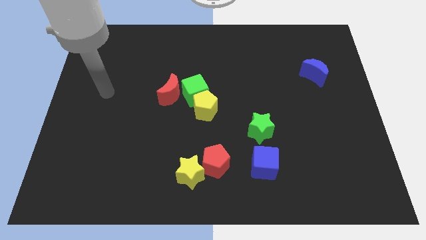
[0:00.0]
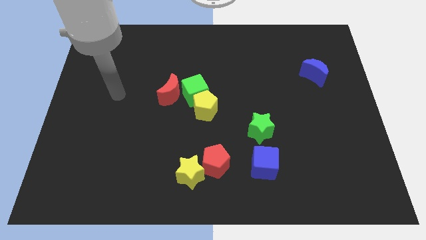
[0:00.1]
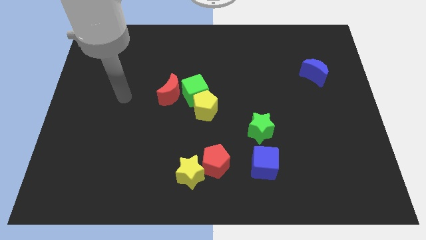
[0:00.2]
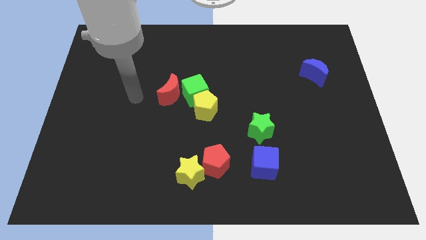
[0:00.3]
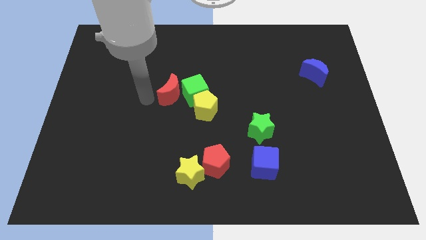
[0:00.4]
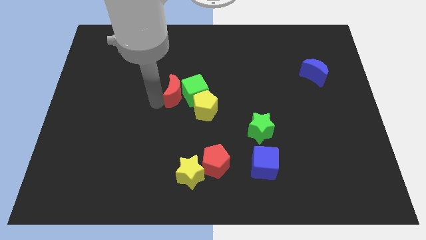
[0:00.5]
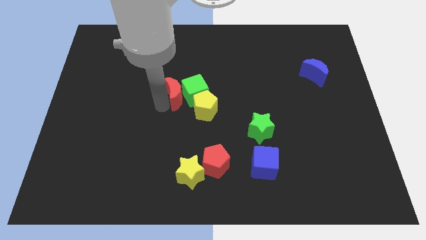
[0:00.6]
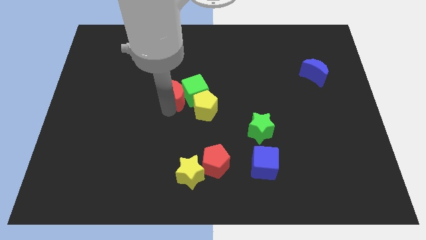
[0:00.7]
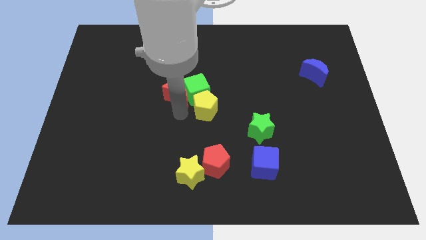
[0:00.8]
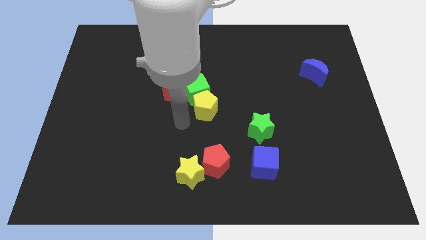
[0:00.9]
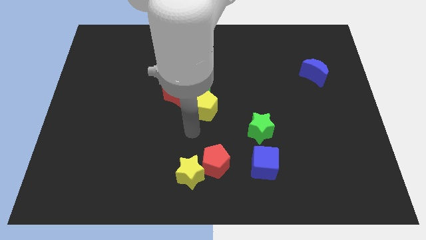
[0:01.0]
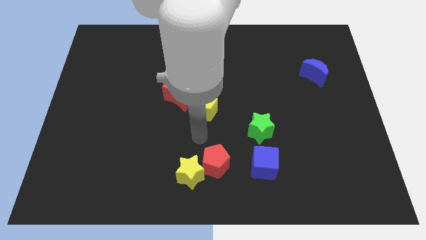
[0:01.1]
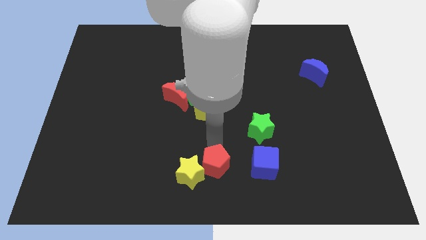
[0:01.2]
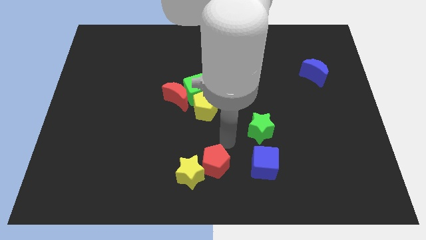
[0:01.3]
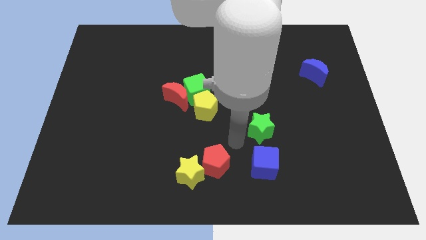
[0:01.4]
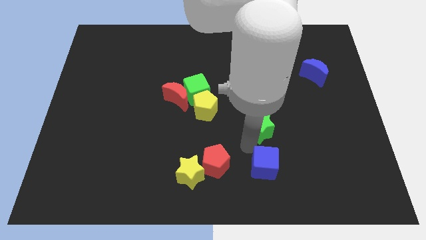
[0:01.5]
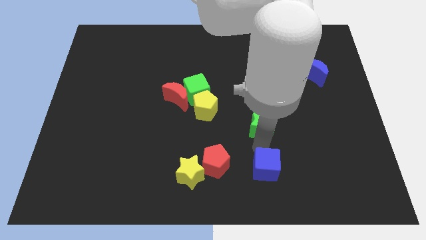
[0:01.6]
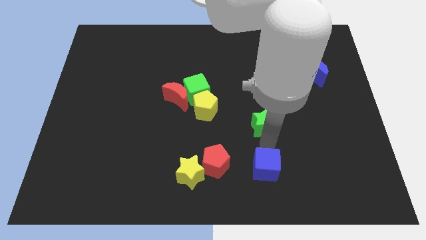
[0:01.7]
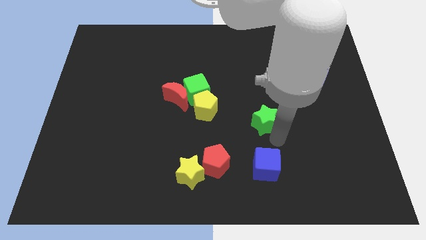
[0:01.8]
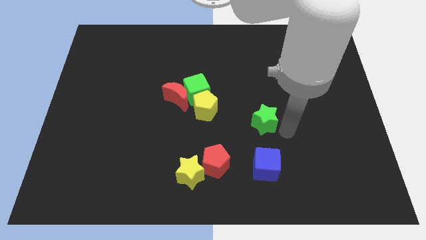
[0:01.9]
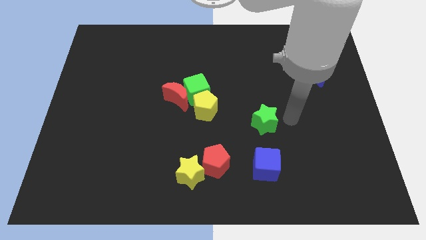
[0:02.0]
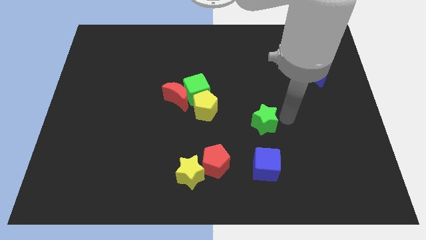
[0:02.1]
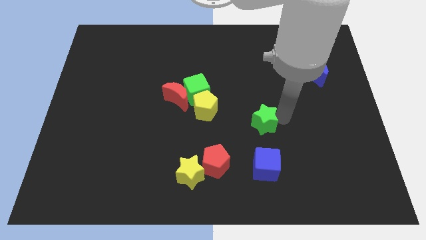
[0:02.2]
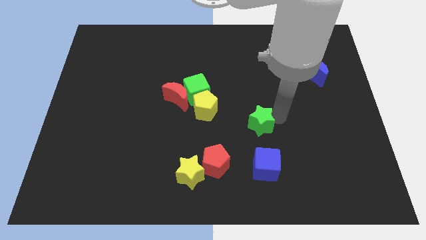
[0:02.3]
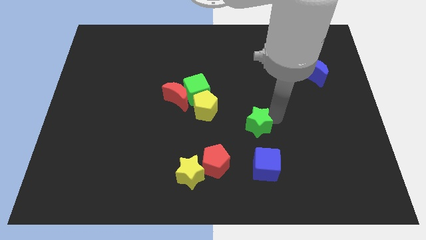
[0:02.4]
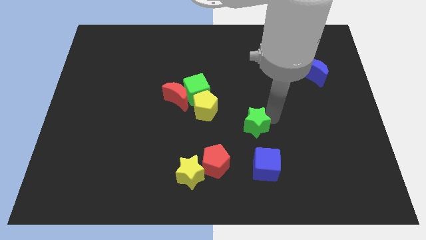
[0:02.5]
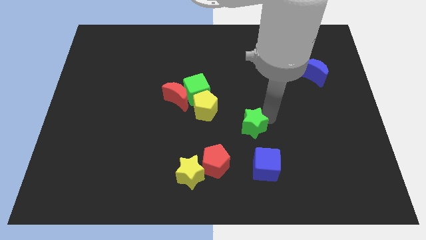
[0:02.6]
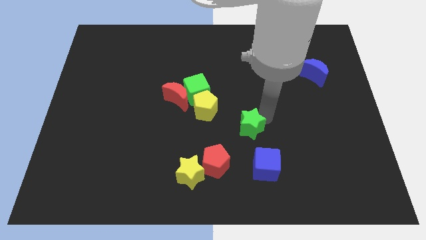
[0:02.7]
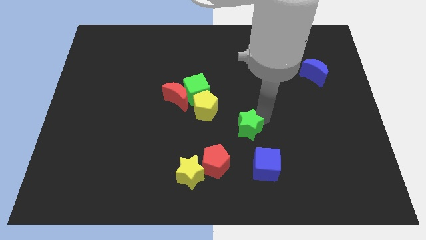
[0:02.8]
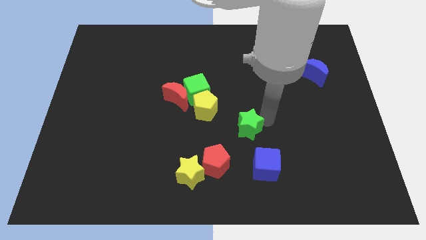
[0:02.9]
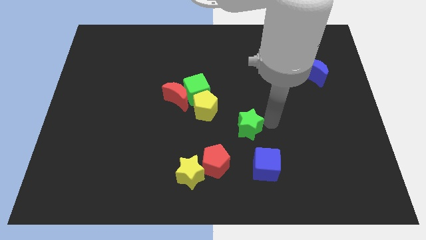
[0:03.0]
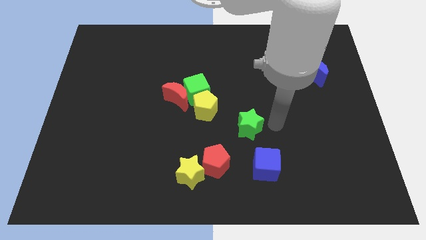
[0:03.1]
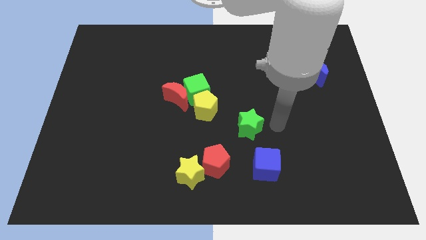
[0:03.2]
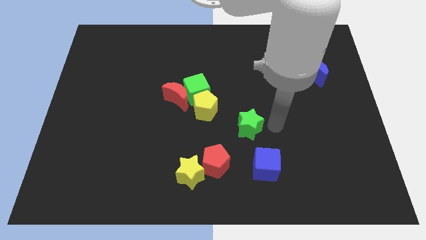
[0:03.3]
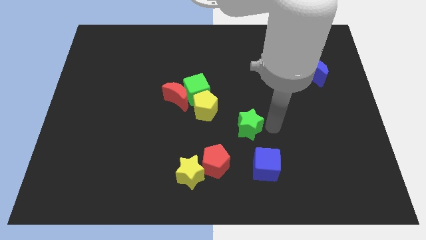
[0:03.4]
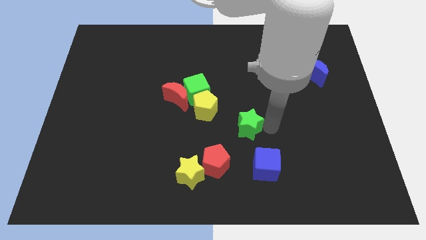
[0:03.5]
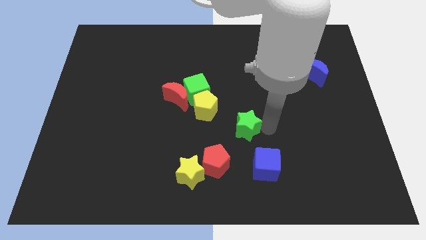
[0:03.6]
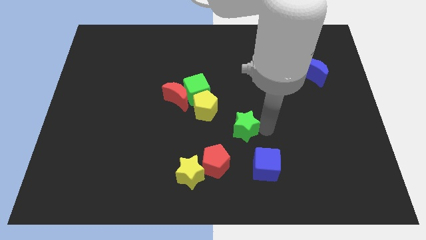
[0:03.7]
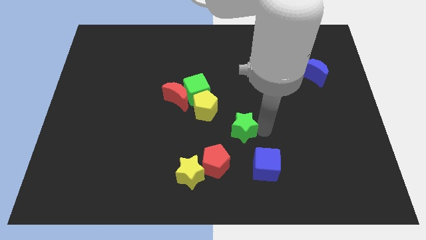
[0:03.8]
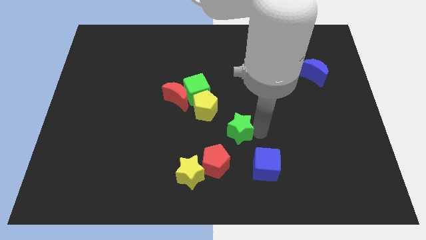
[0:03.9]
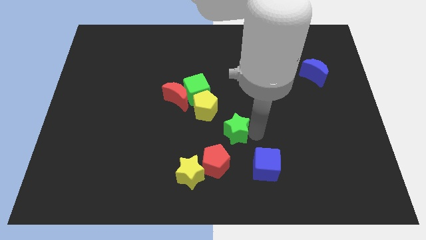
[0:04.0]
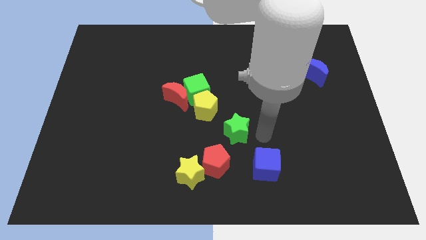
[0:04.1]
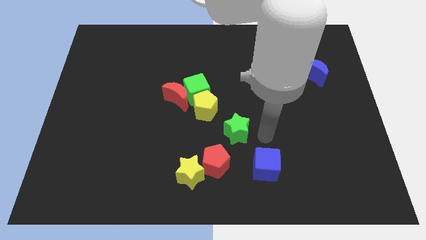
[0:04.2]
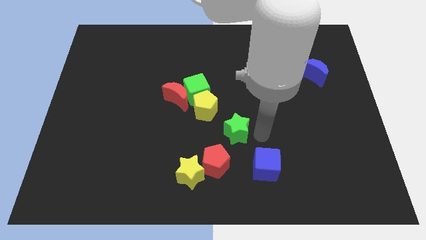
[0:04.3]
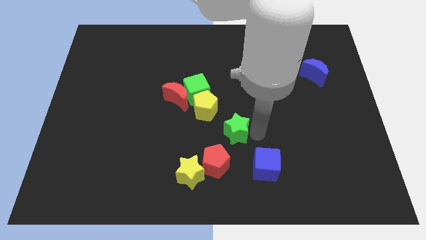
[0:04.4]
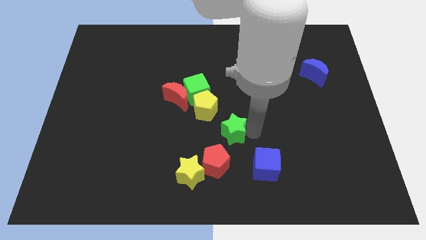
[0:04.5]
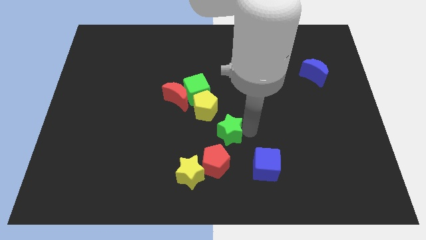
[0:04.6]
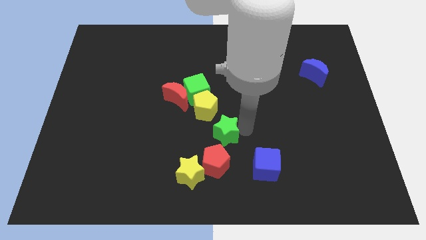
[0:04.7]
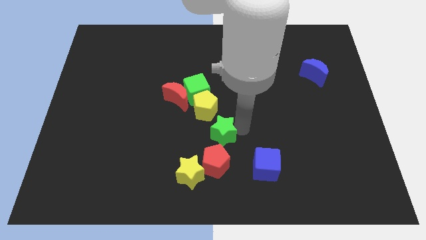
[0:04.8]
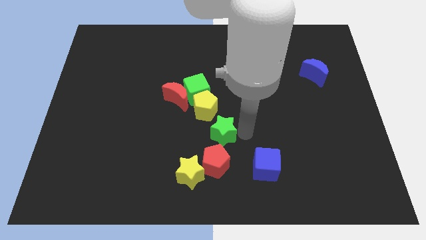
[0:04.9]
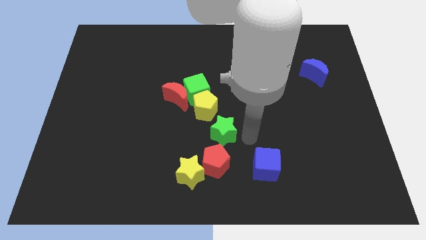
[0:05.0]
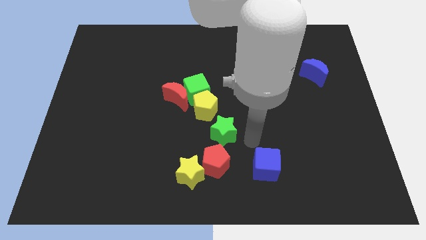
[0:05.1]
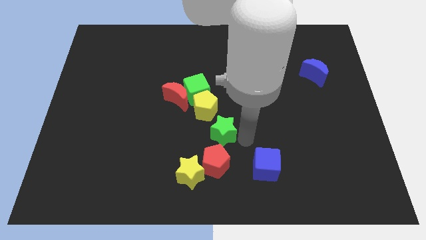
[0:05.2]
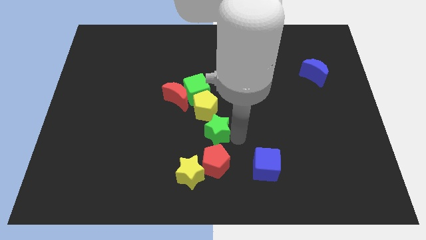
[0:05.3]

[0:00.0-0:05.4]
slide the green star to the bottom of the green cube

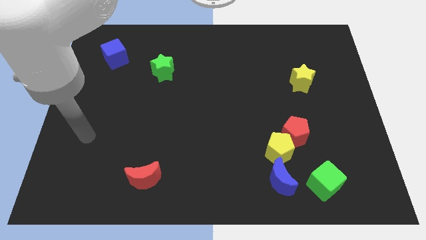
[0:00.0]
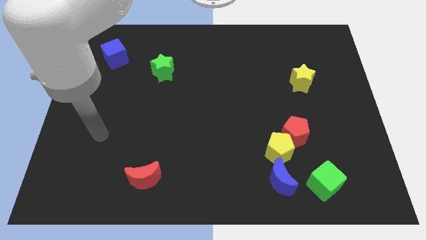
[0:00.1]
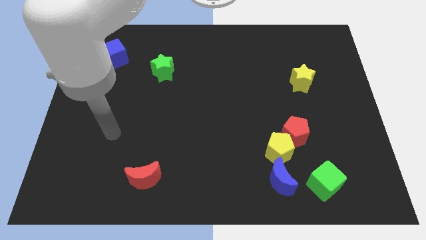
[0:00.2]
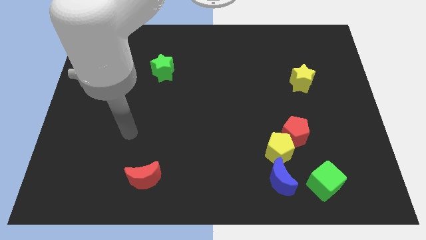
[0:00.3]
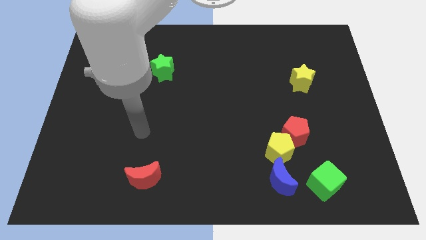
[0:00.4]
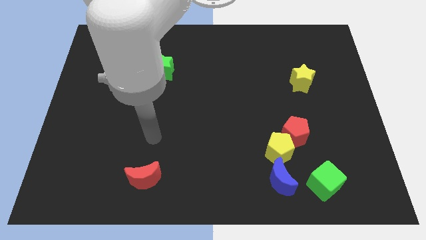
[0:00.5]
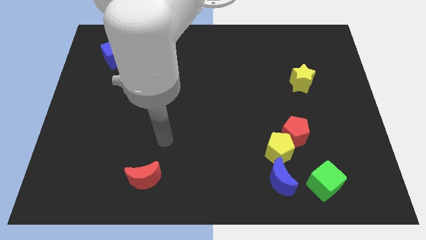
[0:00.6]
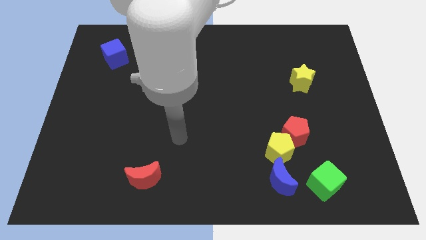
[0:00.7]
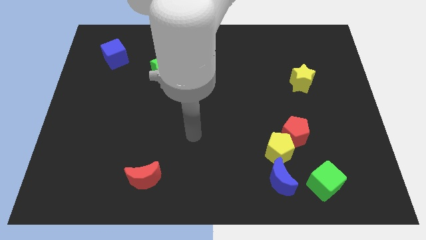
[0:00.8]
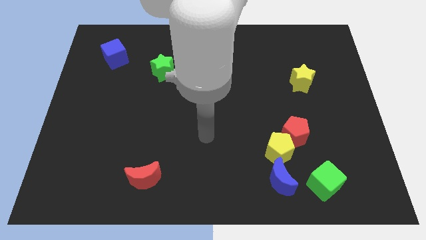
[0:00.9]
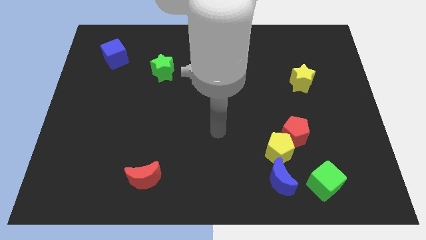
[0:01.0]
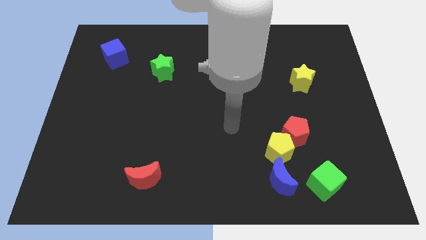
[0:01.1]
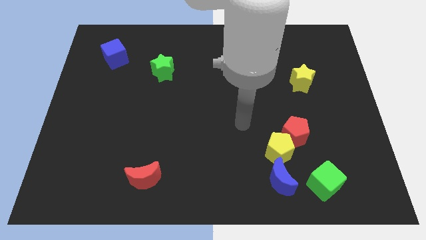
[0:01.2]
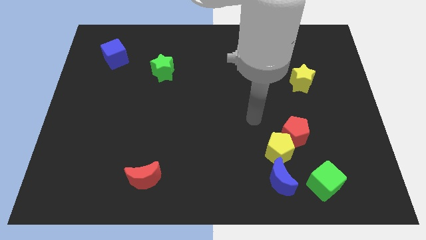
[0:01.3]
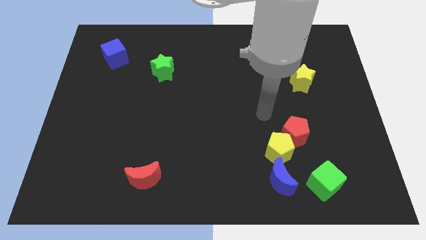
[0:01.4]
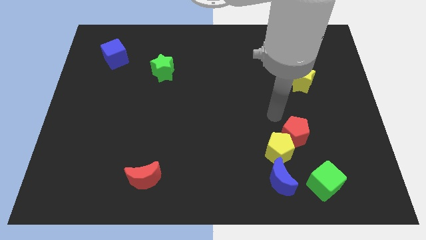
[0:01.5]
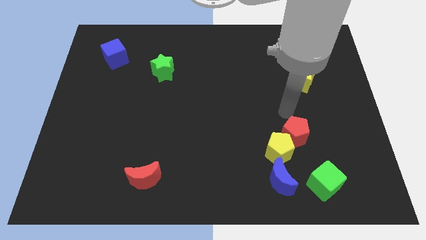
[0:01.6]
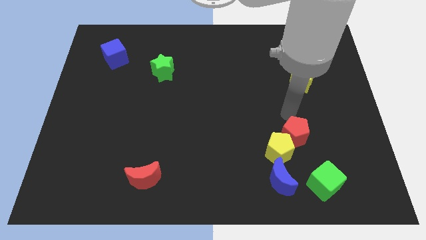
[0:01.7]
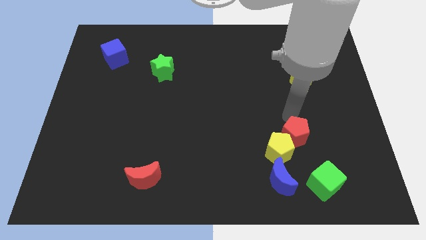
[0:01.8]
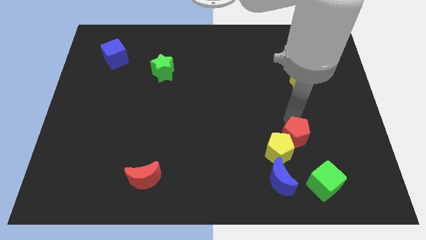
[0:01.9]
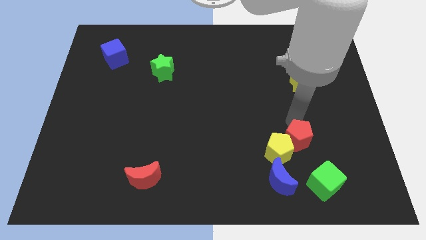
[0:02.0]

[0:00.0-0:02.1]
slide the red pentagon to the top right side of the blue moon
